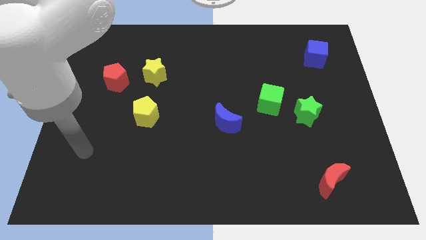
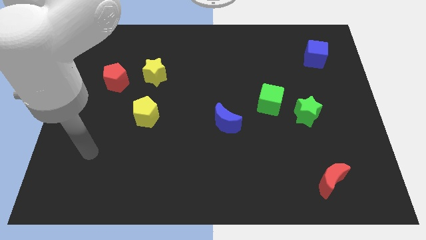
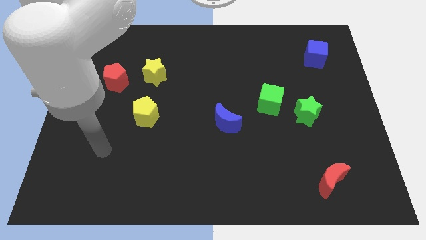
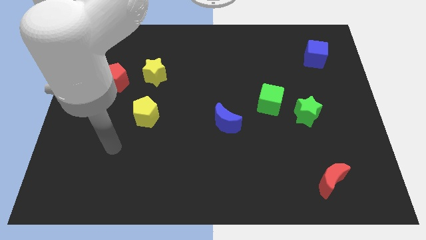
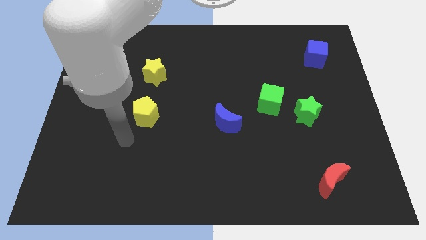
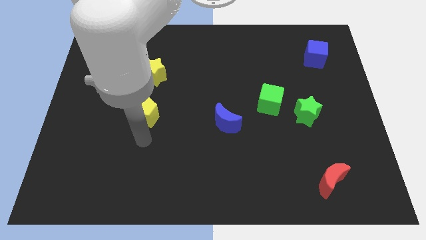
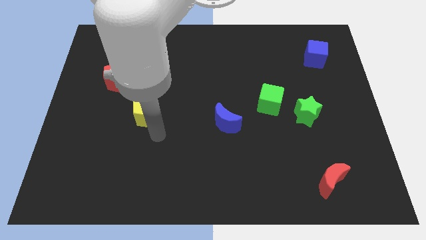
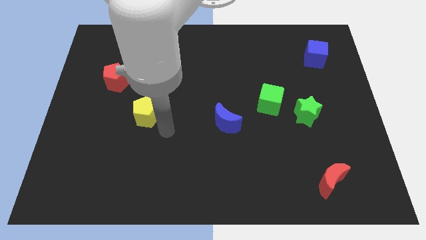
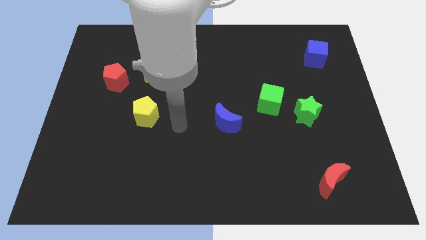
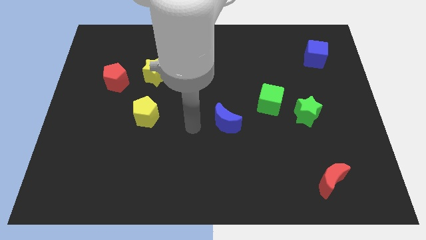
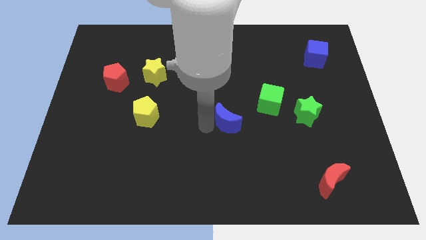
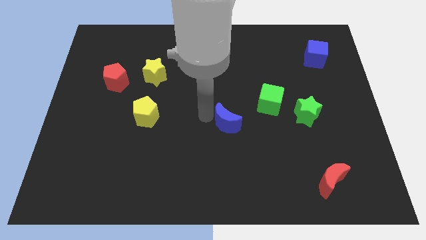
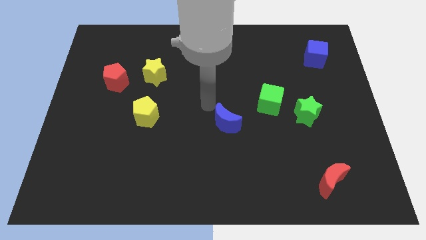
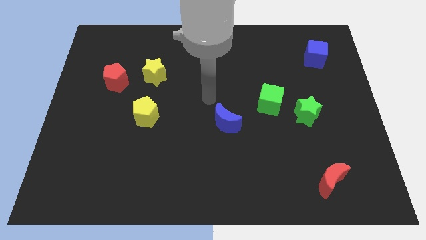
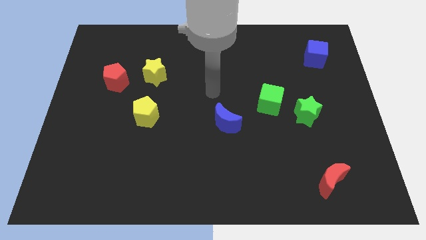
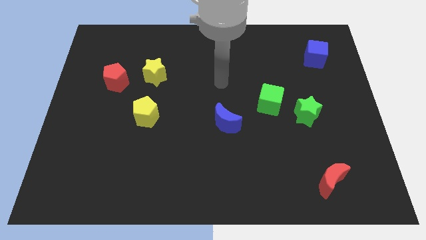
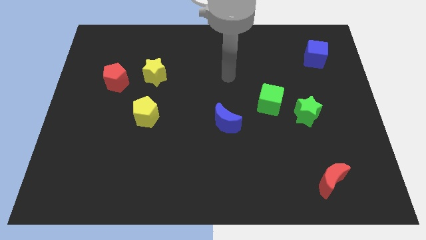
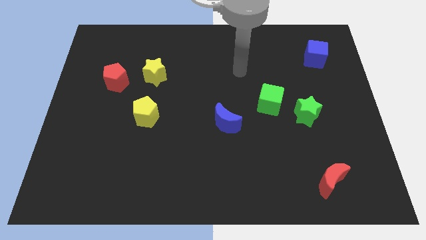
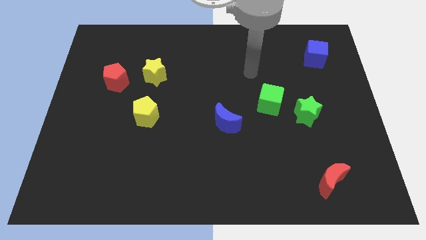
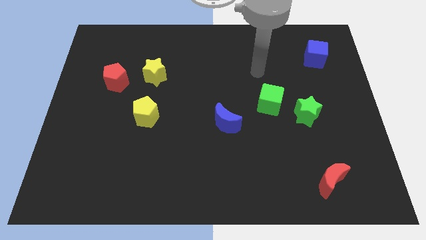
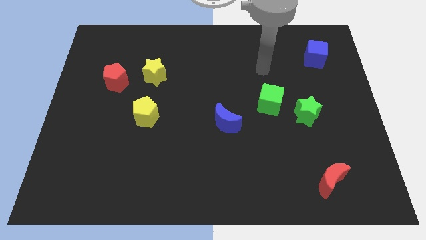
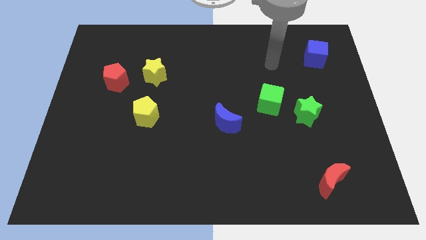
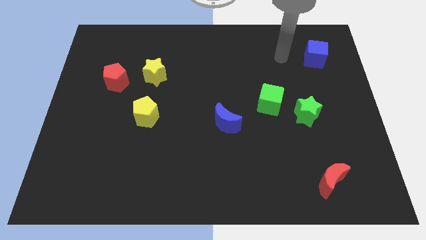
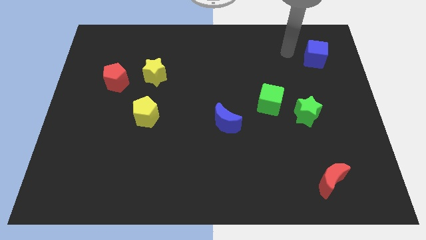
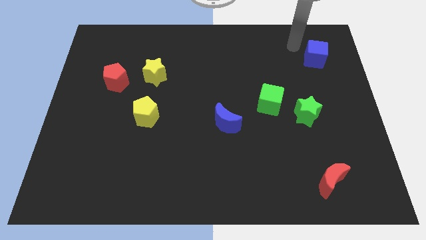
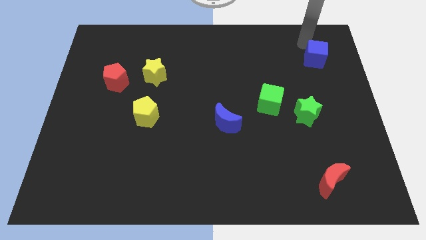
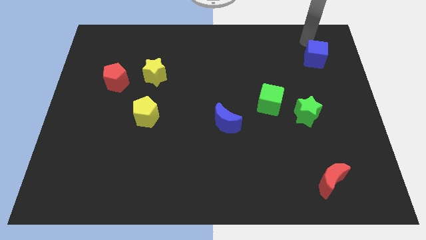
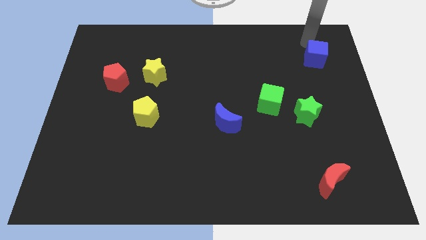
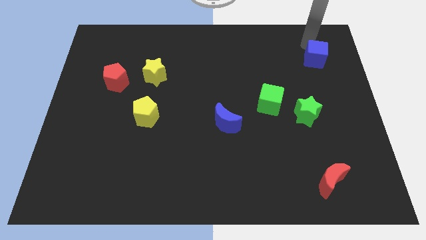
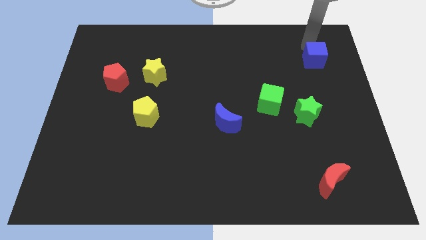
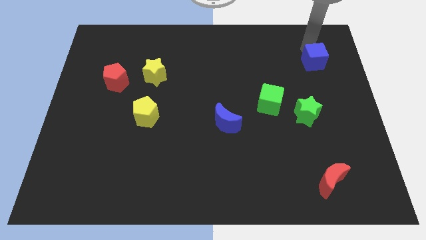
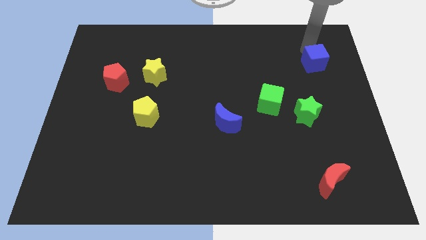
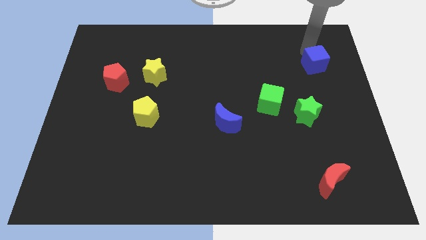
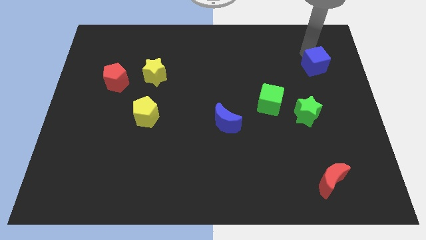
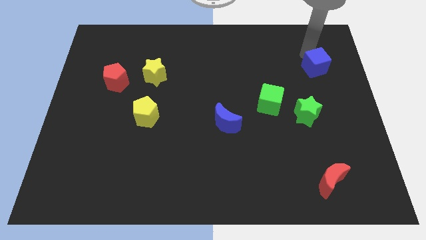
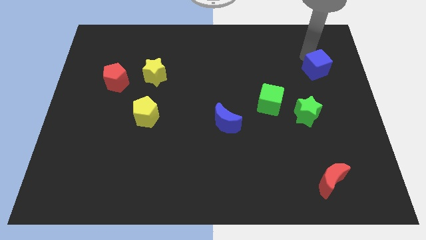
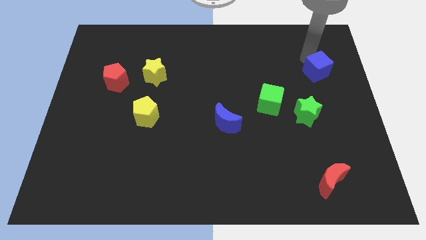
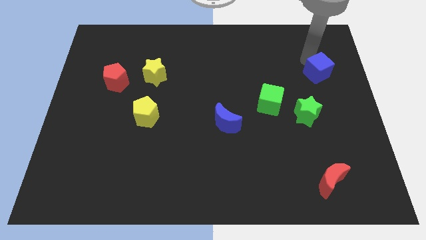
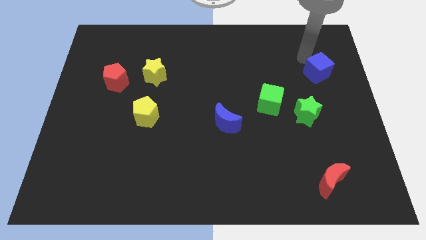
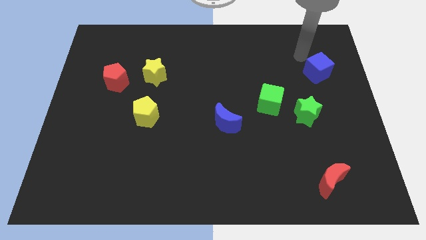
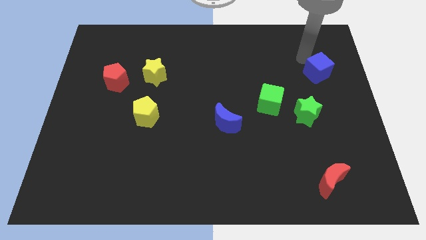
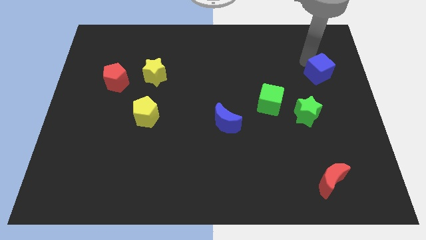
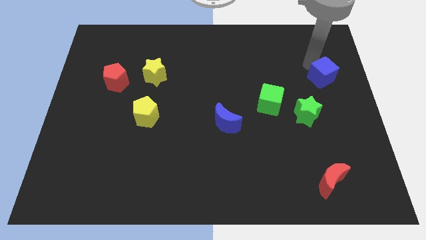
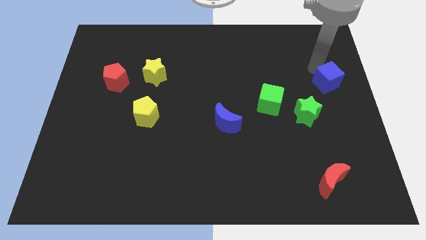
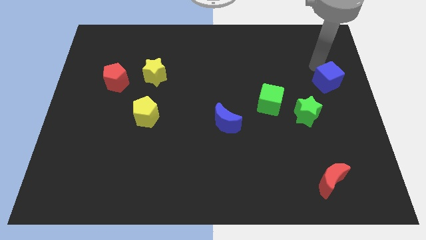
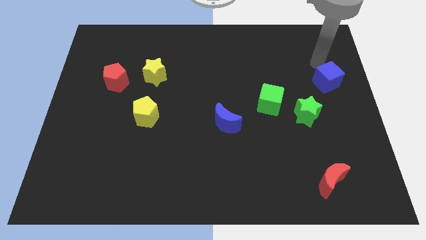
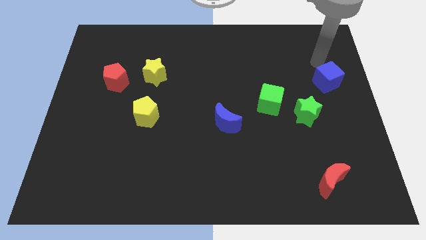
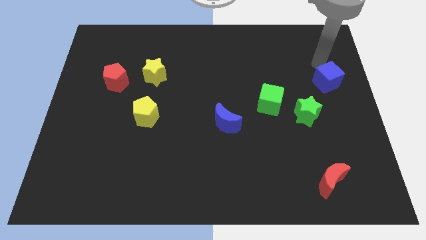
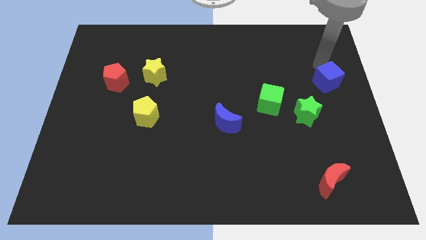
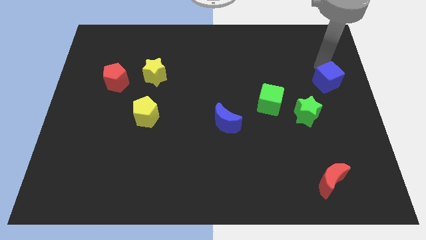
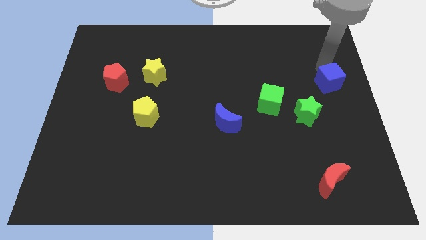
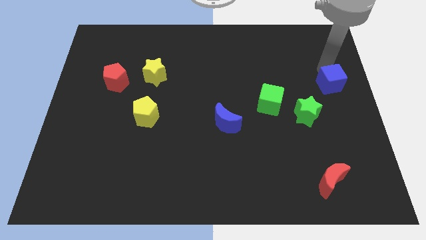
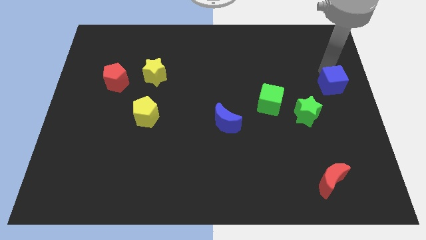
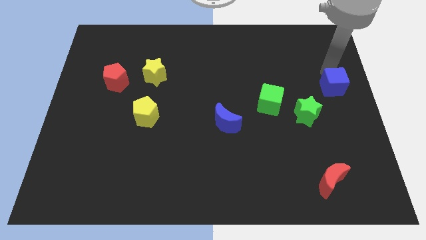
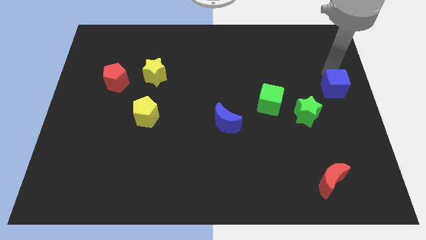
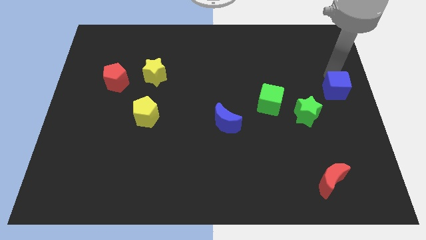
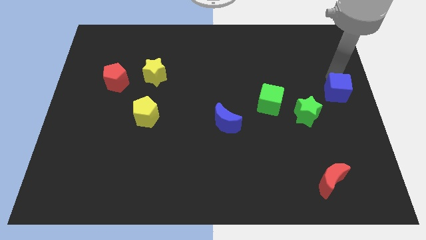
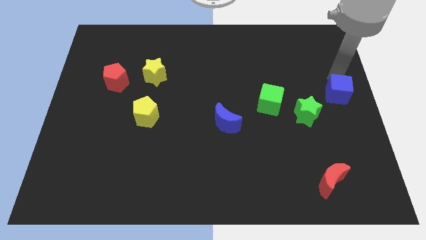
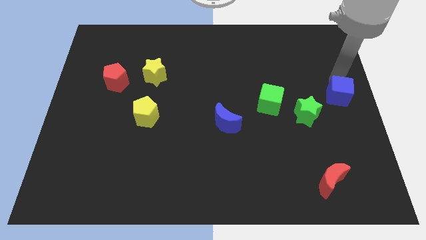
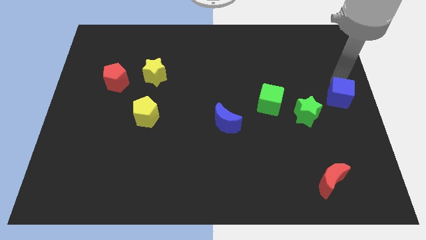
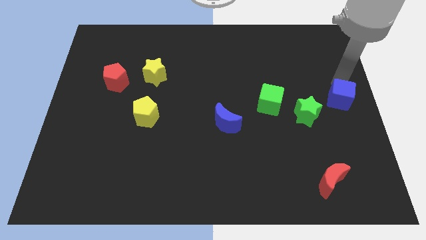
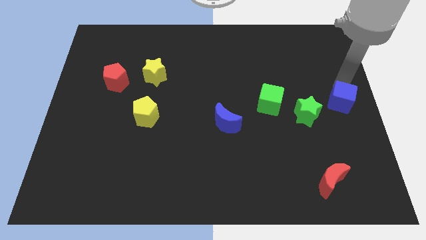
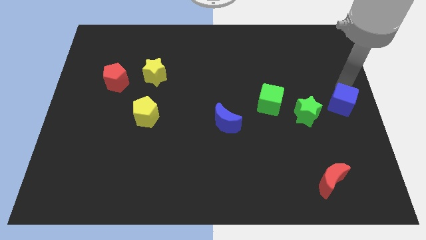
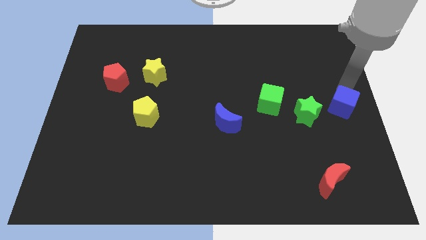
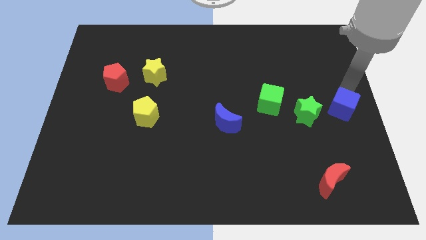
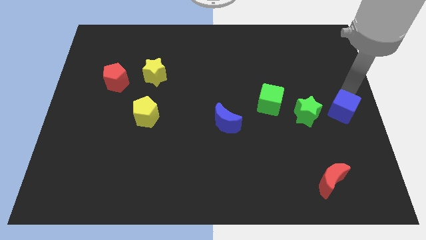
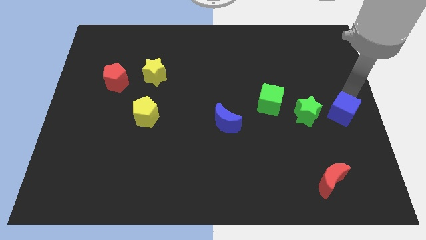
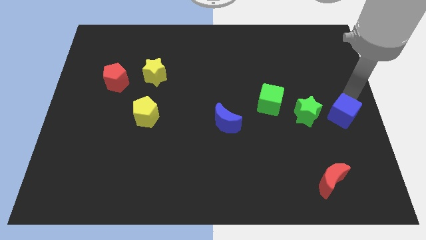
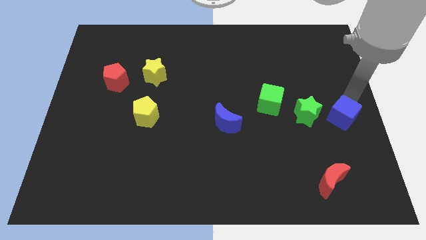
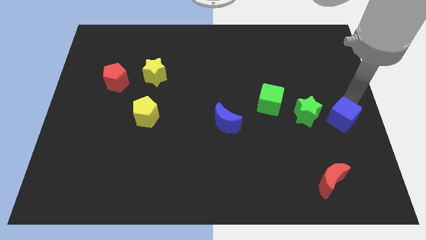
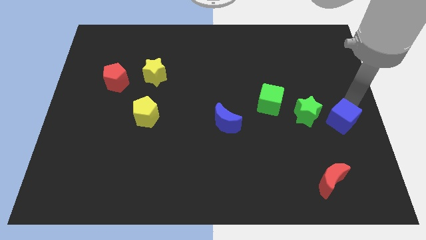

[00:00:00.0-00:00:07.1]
move the blue cube downwards

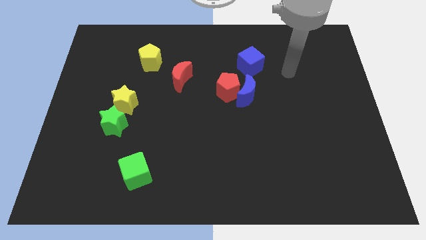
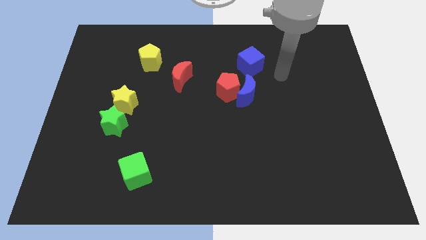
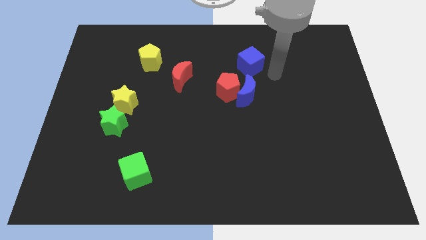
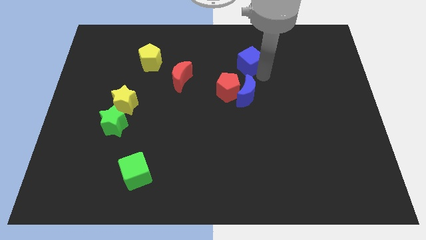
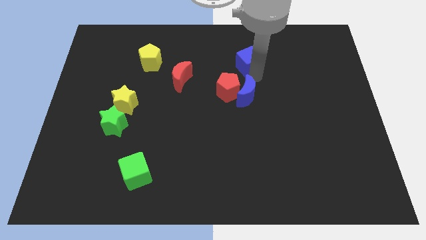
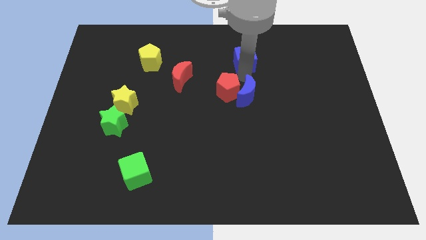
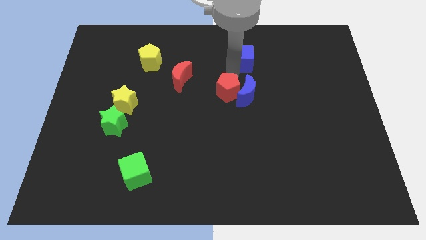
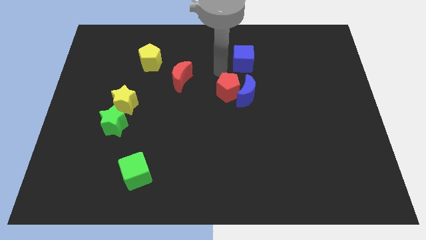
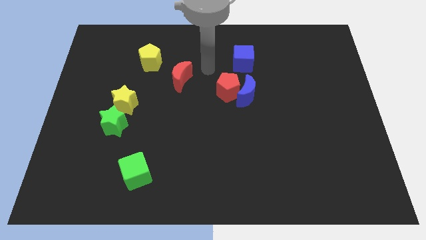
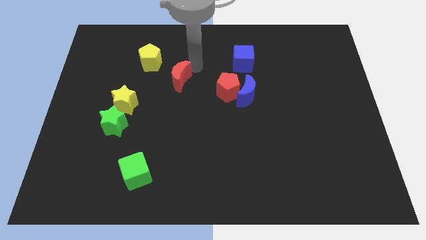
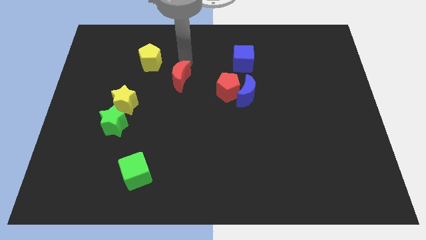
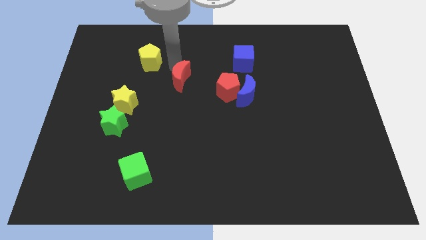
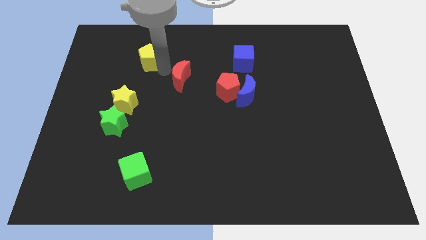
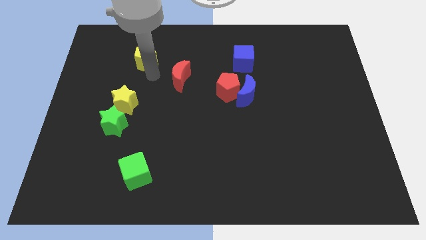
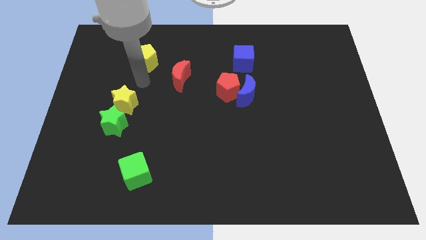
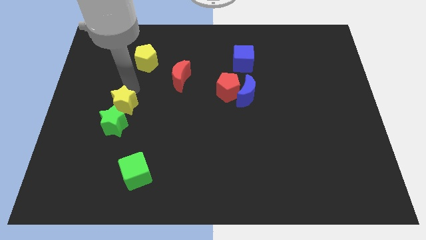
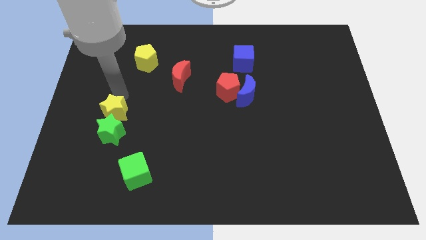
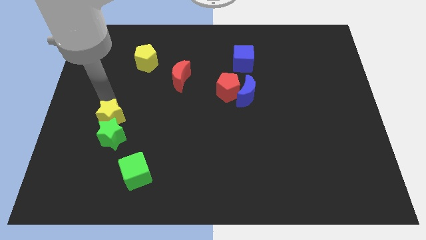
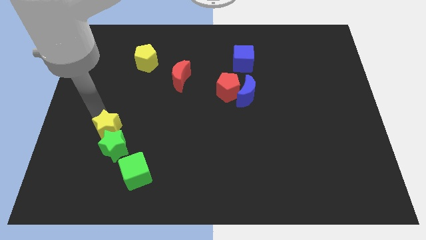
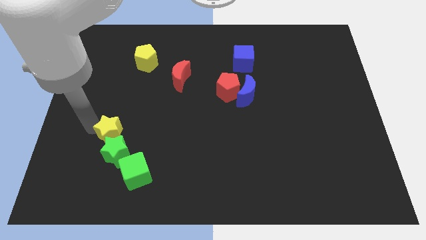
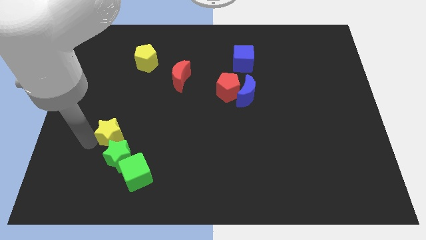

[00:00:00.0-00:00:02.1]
push the green star slightly downwards and then right
